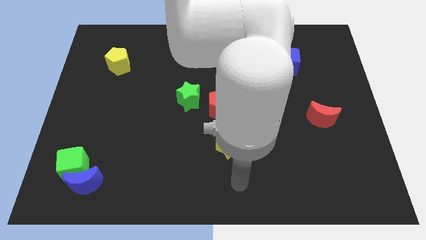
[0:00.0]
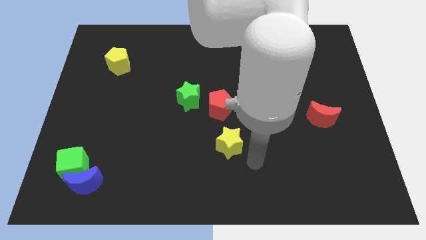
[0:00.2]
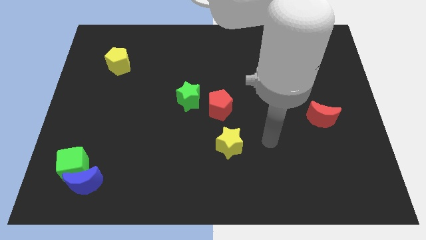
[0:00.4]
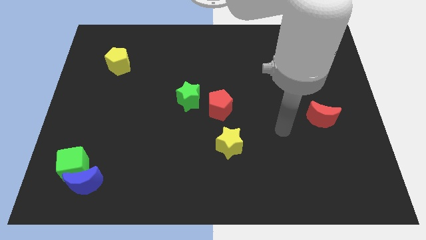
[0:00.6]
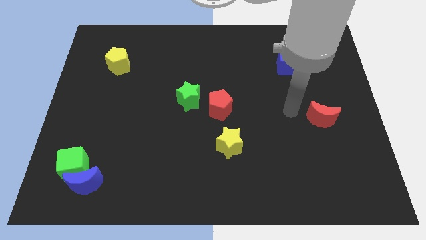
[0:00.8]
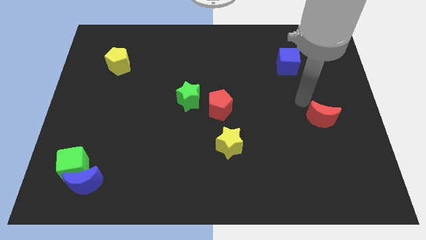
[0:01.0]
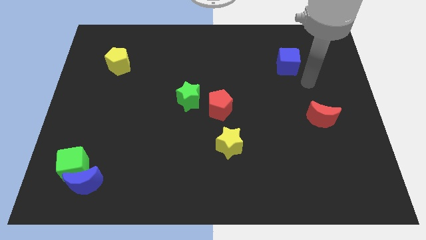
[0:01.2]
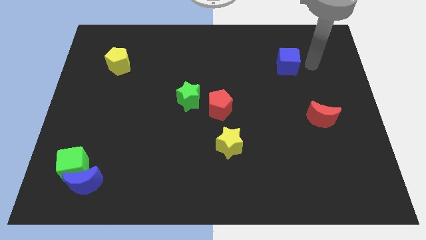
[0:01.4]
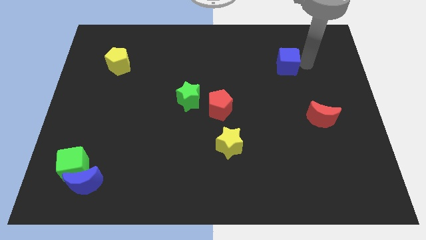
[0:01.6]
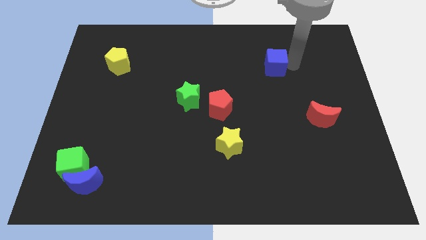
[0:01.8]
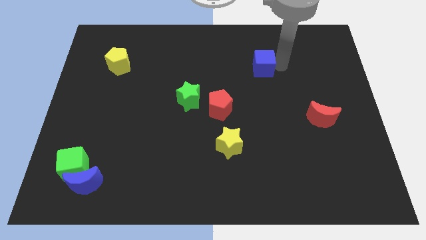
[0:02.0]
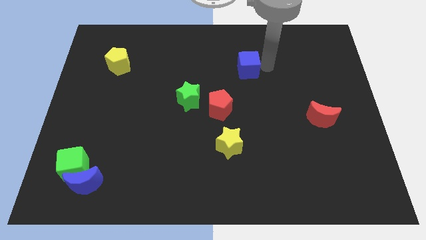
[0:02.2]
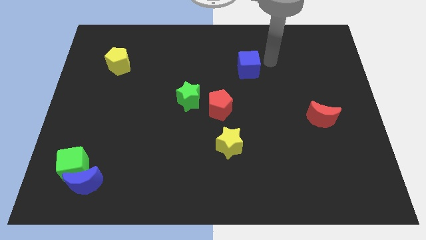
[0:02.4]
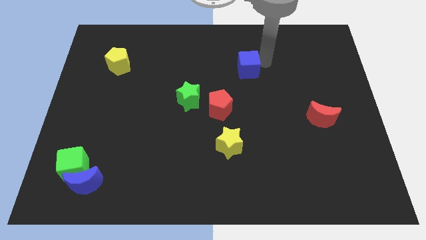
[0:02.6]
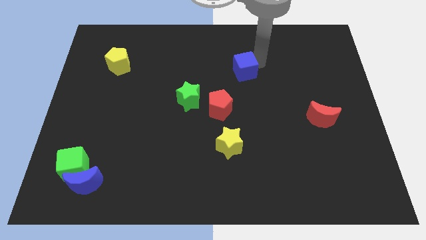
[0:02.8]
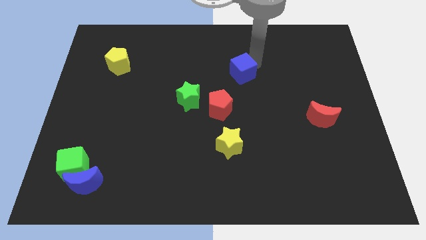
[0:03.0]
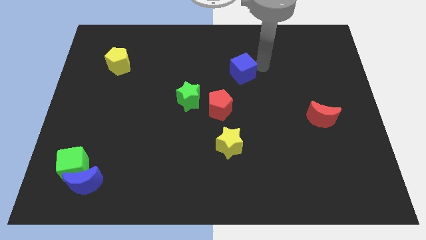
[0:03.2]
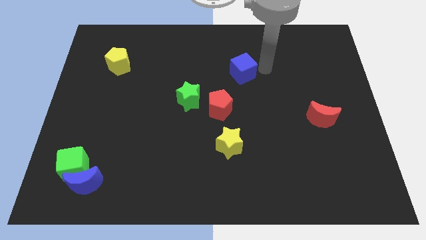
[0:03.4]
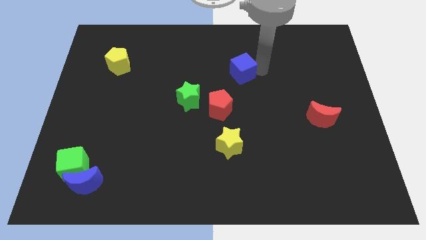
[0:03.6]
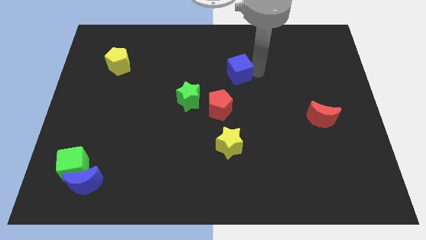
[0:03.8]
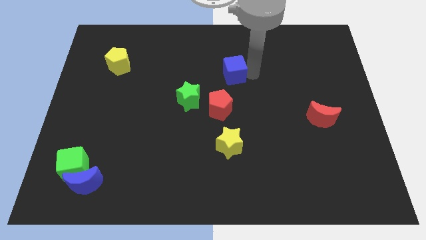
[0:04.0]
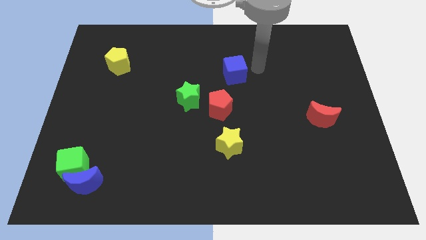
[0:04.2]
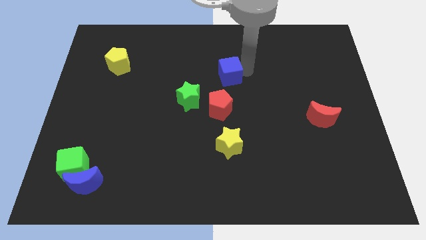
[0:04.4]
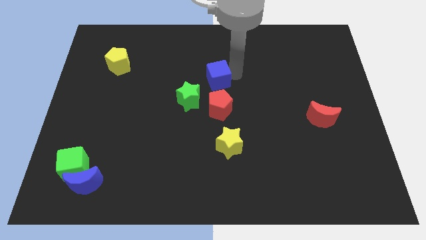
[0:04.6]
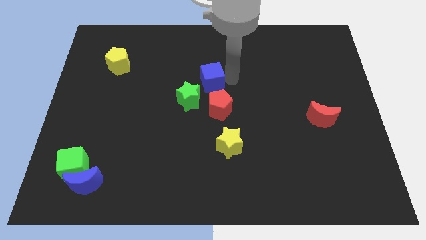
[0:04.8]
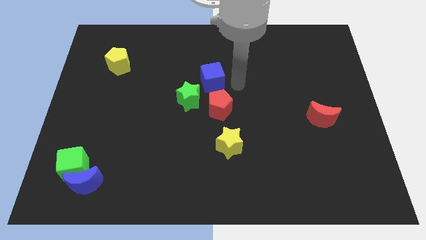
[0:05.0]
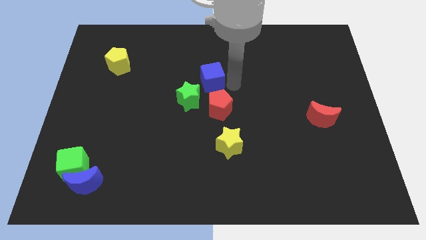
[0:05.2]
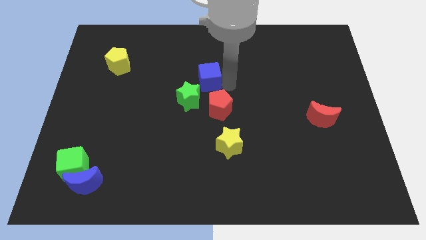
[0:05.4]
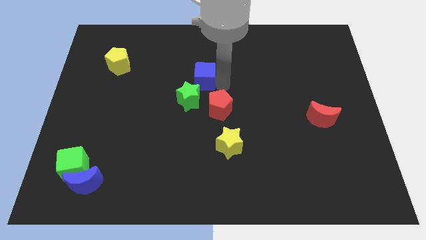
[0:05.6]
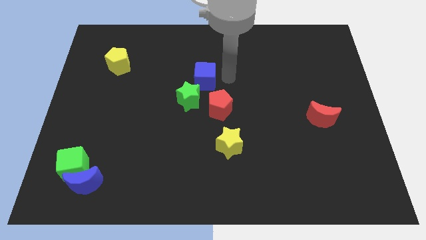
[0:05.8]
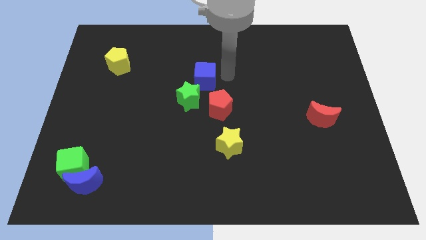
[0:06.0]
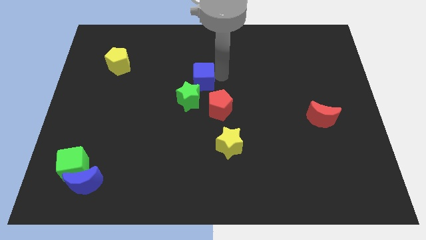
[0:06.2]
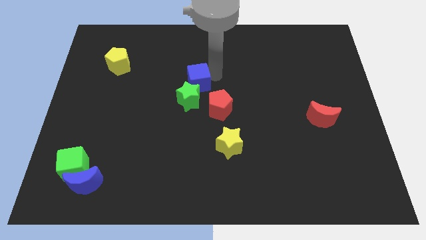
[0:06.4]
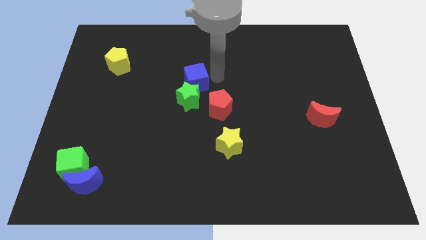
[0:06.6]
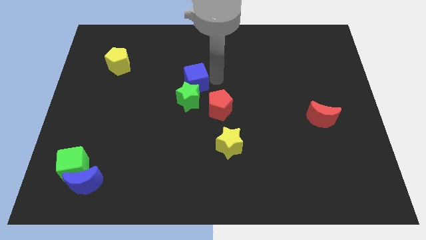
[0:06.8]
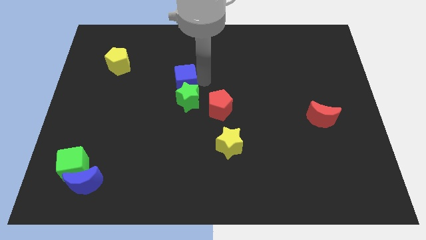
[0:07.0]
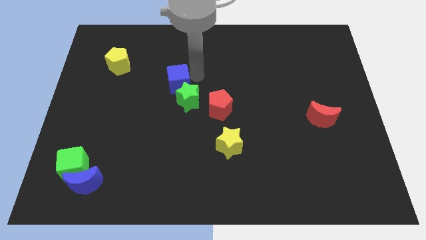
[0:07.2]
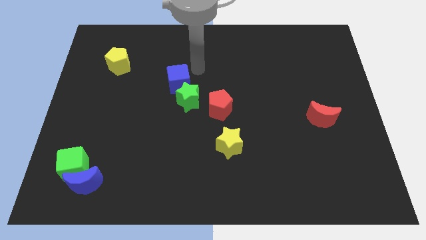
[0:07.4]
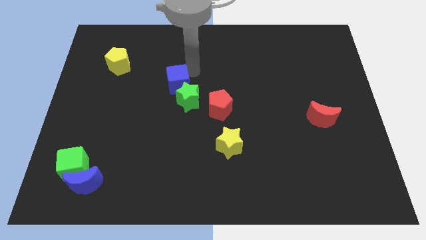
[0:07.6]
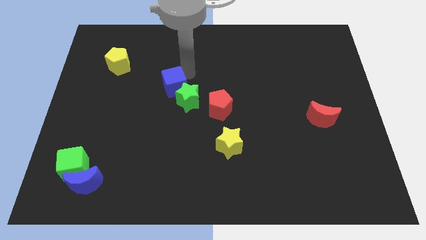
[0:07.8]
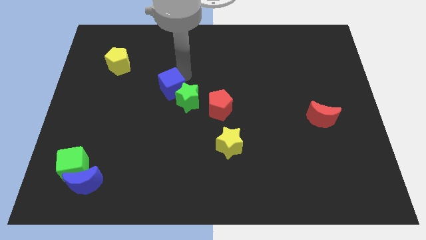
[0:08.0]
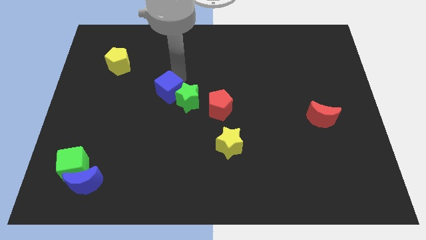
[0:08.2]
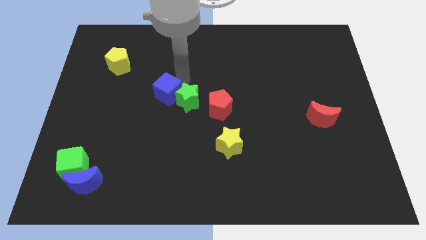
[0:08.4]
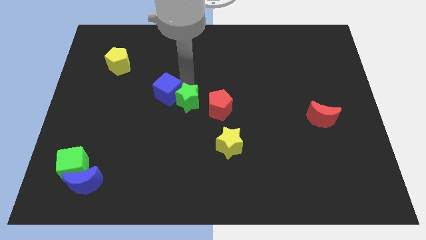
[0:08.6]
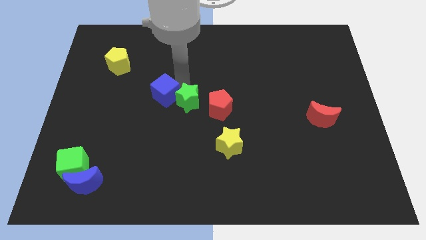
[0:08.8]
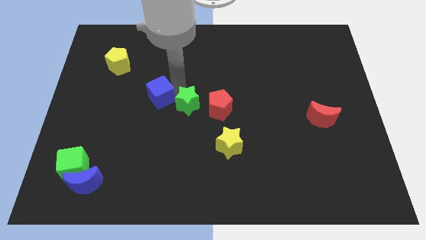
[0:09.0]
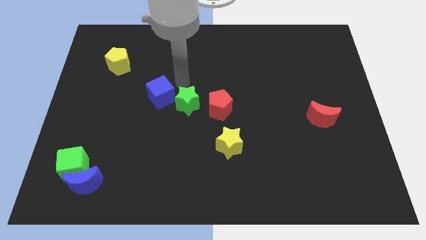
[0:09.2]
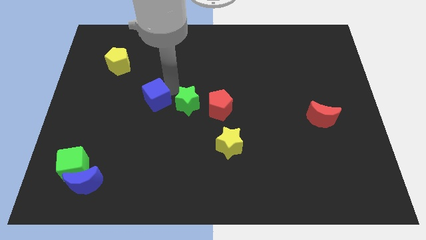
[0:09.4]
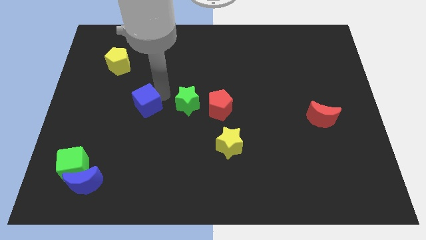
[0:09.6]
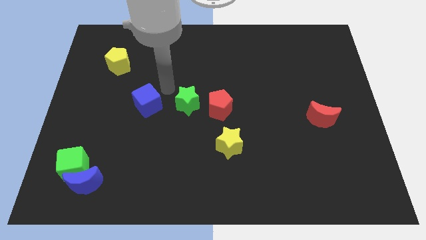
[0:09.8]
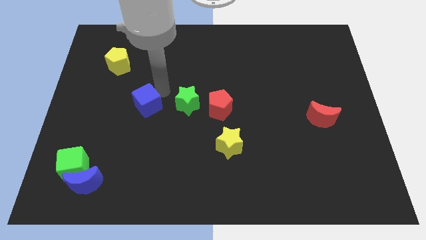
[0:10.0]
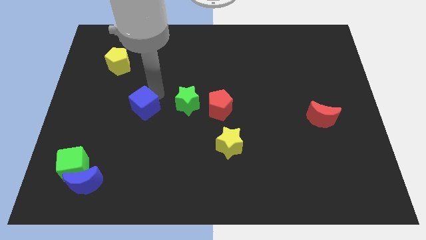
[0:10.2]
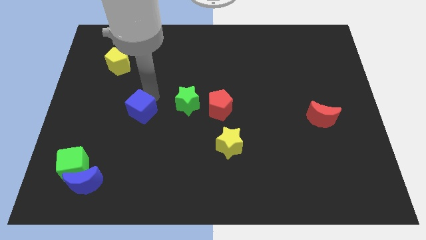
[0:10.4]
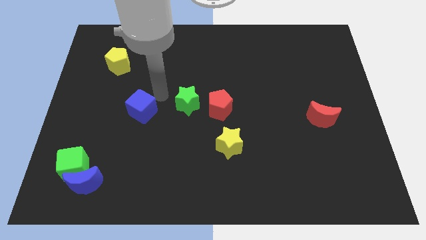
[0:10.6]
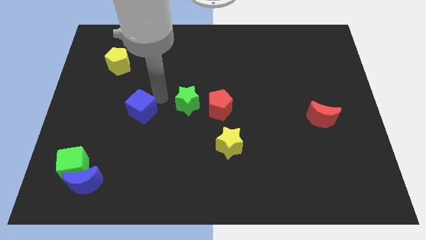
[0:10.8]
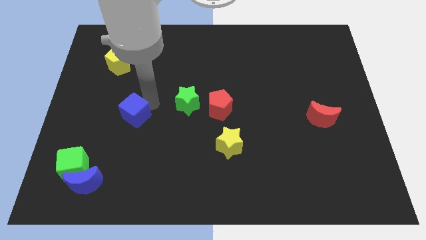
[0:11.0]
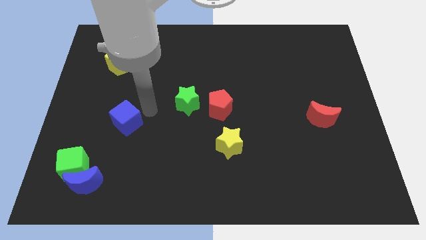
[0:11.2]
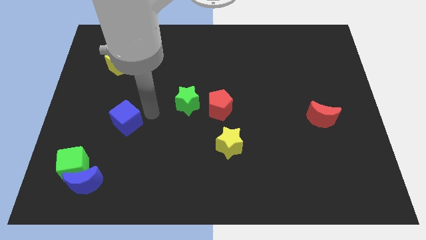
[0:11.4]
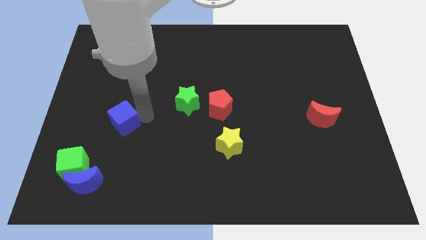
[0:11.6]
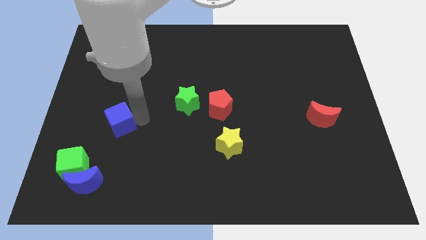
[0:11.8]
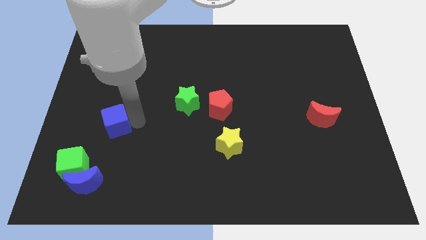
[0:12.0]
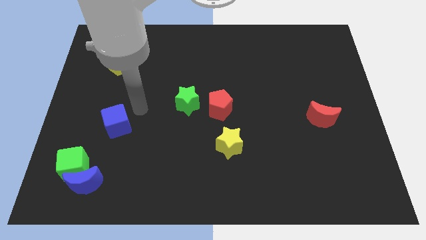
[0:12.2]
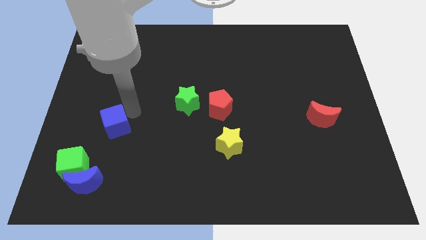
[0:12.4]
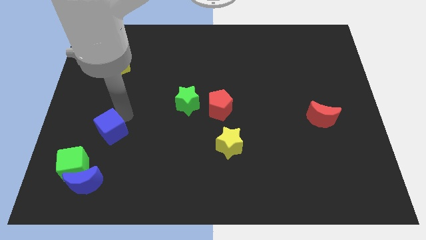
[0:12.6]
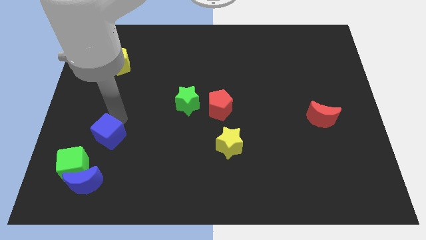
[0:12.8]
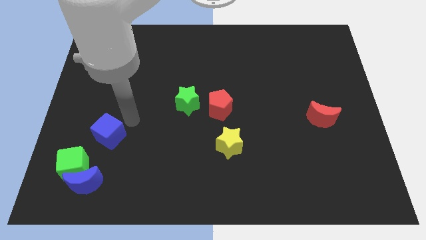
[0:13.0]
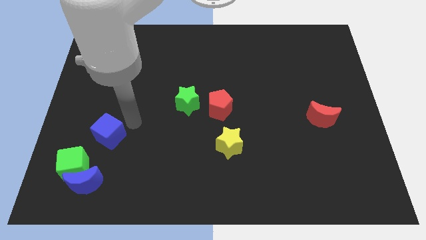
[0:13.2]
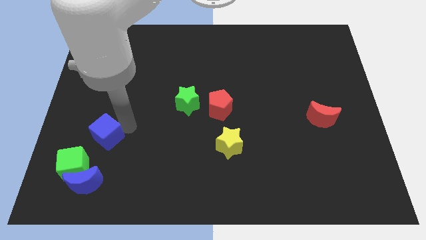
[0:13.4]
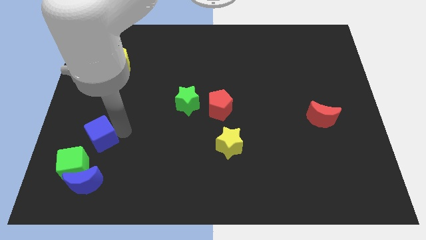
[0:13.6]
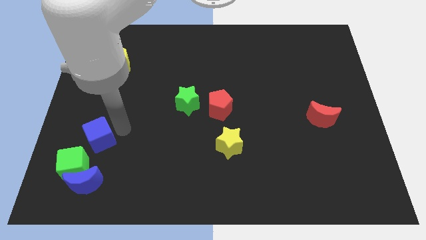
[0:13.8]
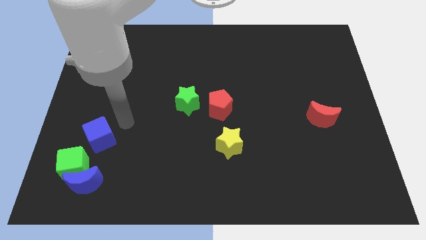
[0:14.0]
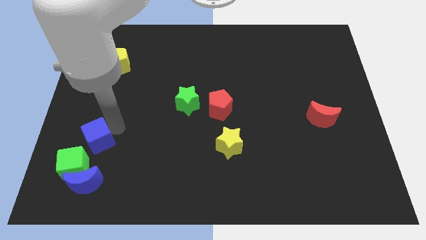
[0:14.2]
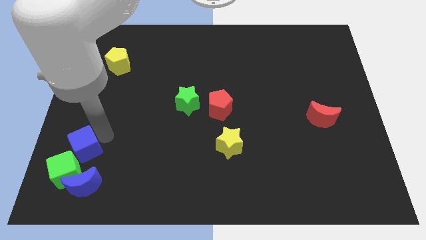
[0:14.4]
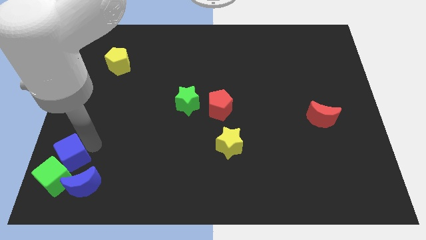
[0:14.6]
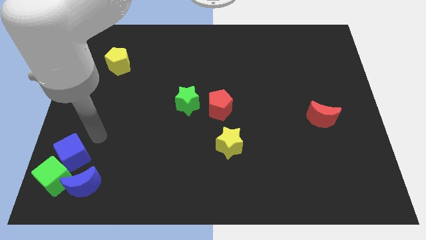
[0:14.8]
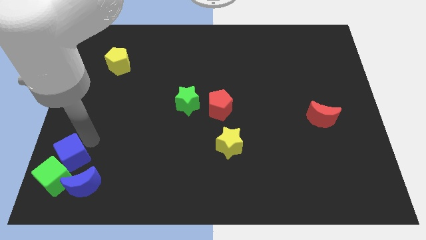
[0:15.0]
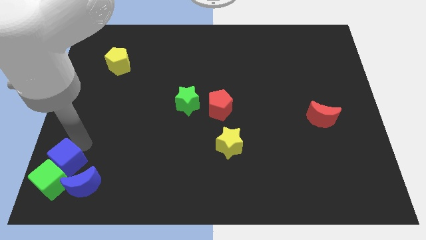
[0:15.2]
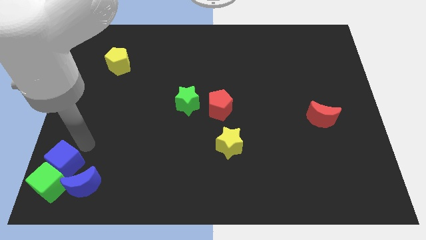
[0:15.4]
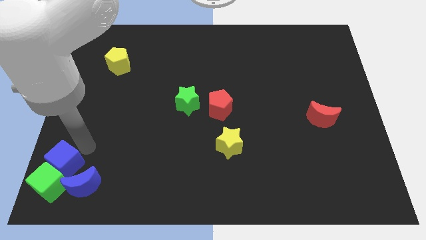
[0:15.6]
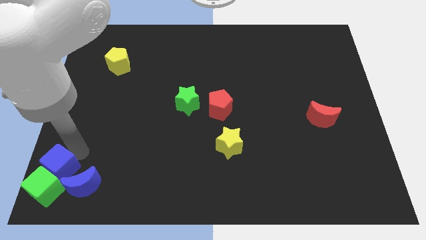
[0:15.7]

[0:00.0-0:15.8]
slide the blue cube to the bottom left
